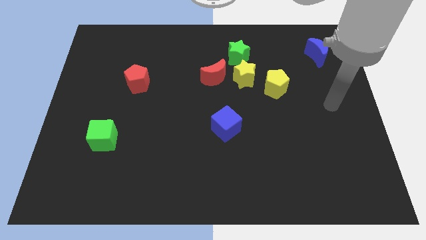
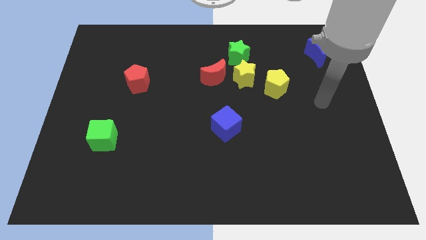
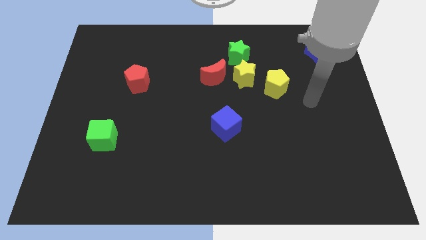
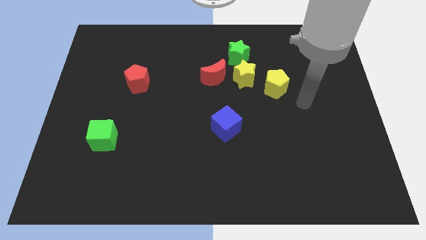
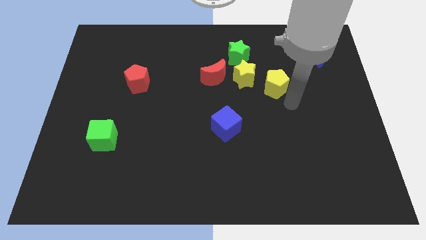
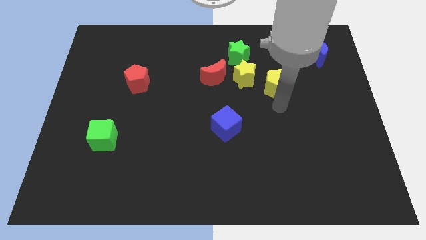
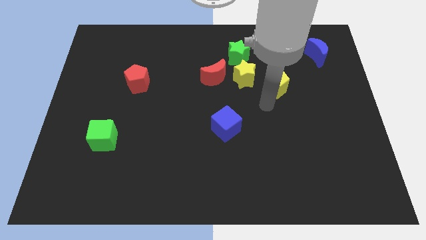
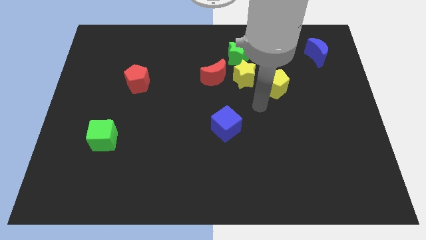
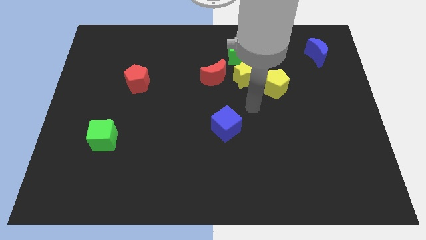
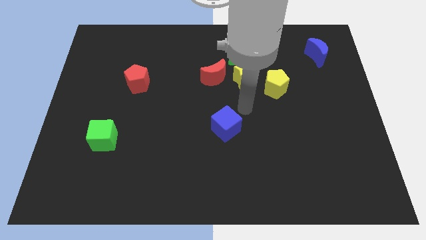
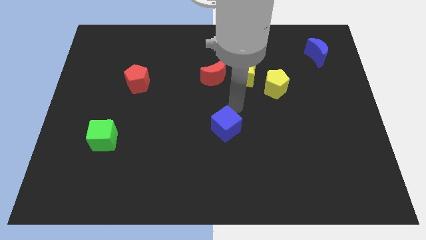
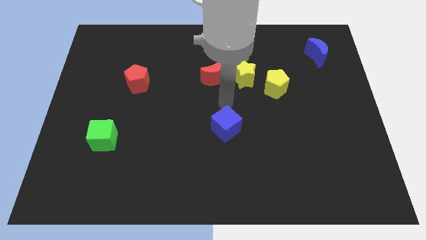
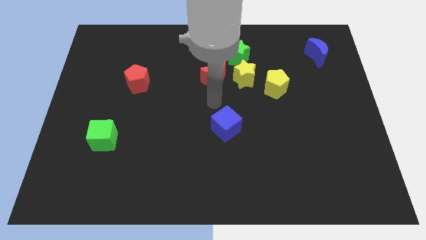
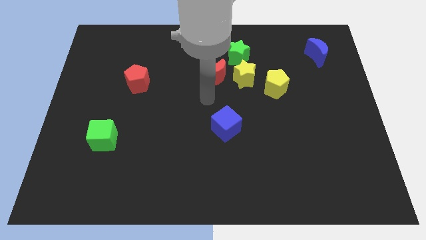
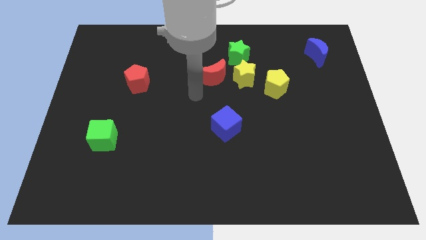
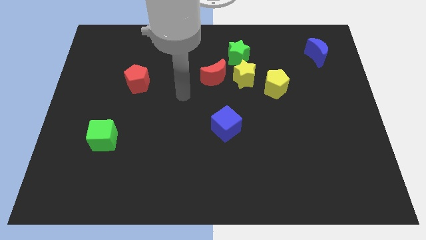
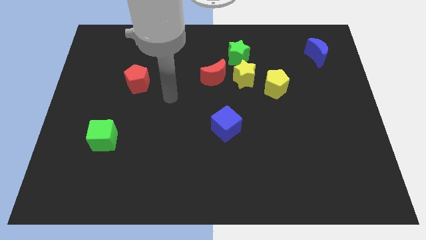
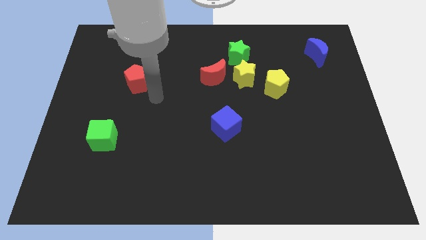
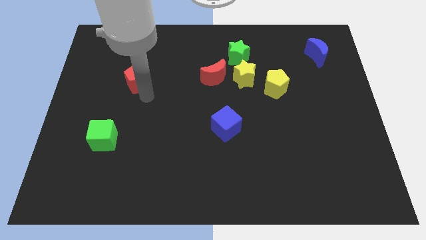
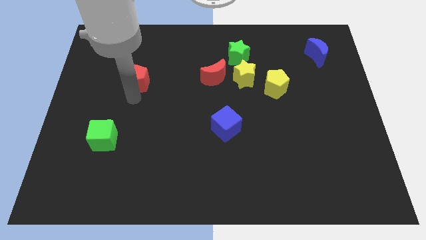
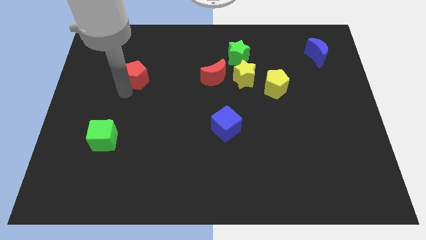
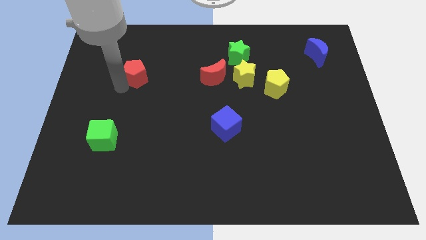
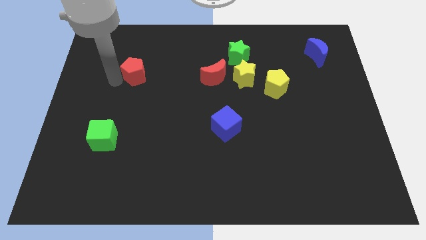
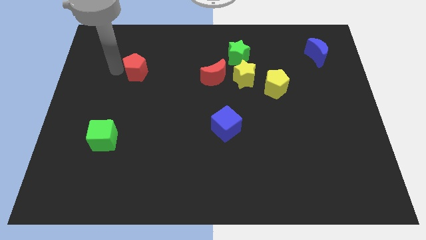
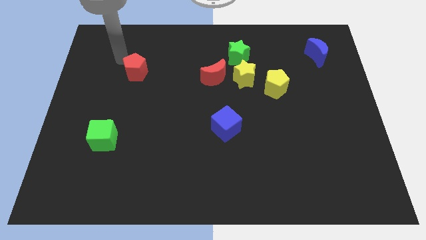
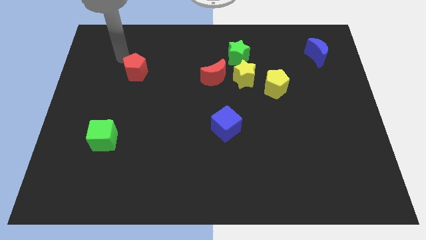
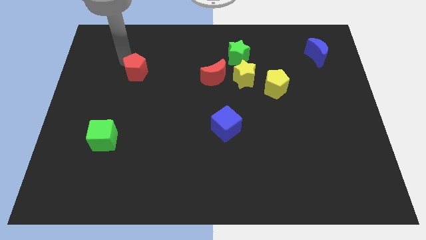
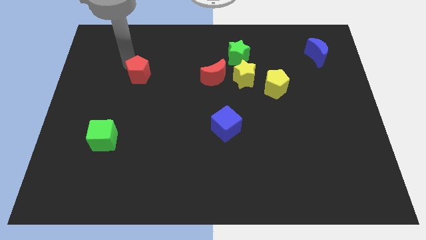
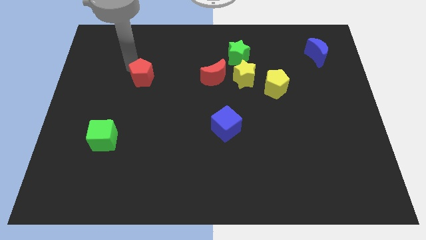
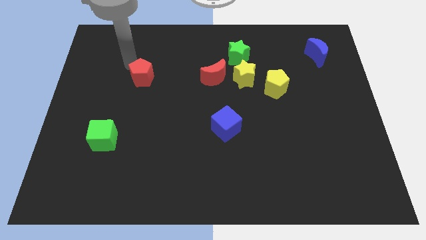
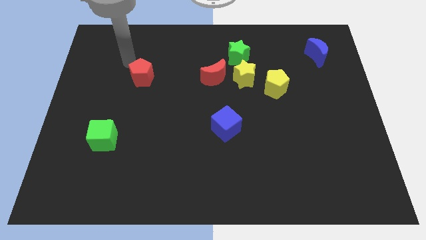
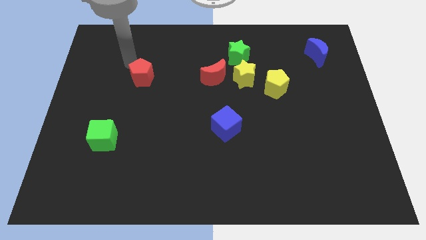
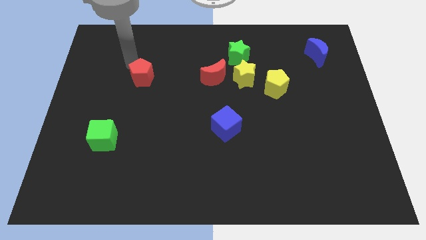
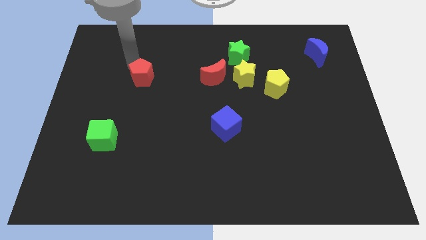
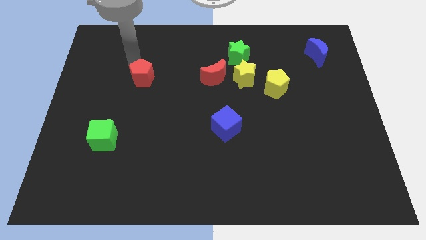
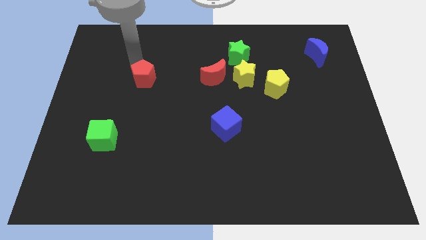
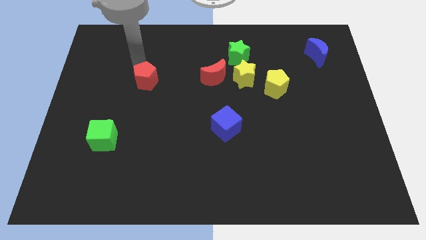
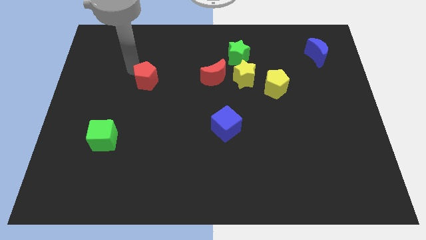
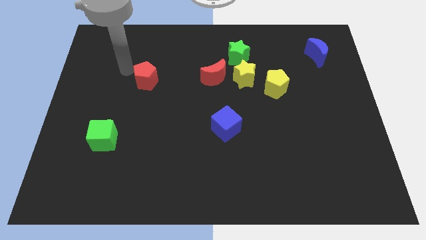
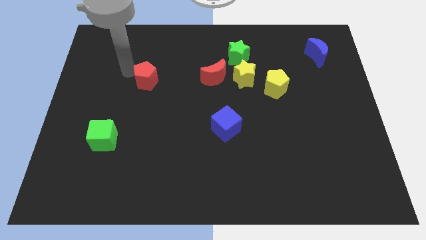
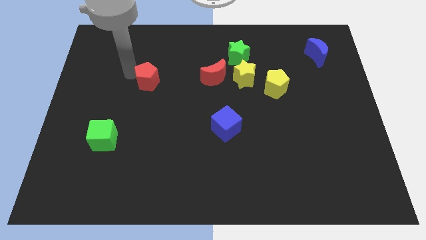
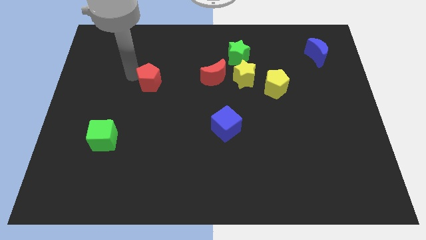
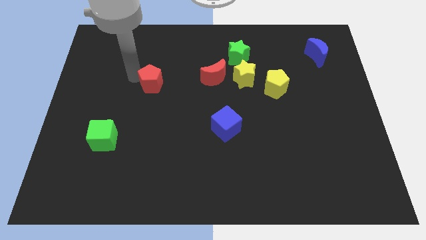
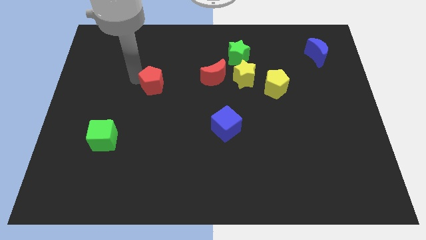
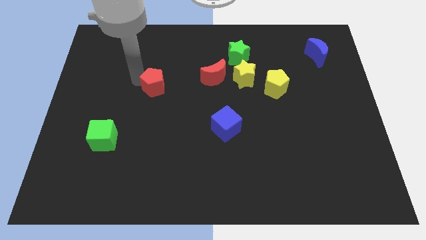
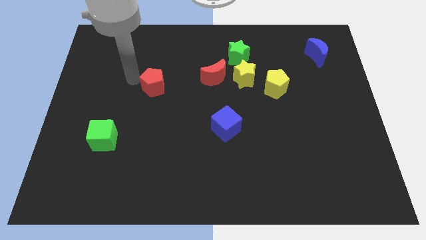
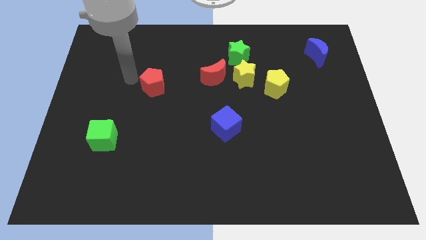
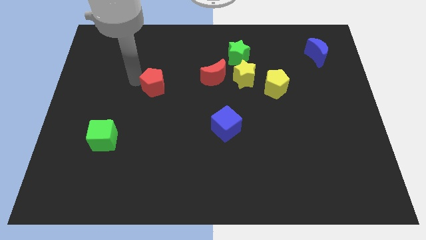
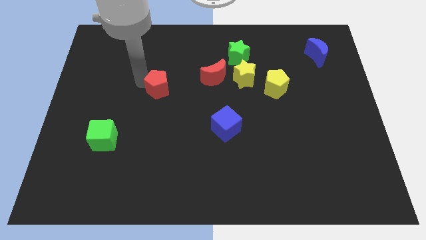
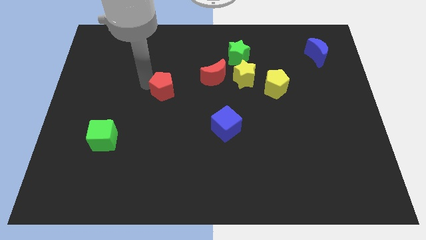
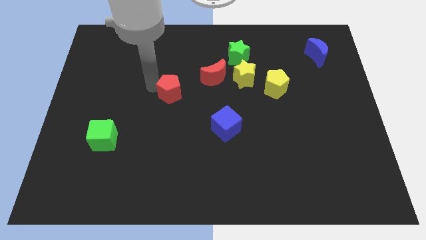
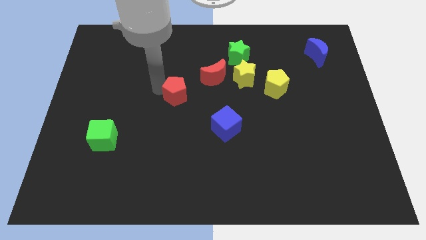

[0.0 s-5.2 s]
put the red pentagon to the bottom left of the red moon

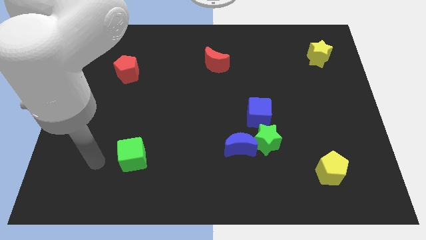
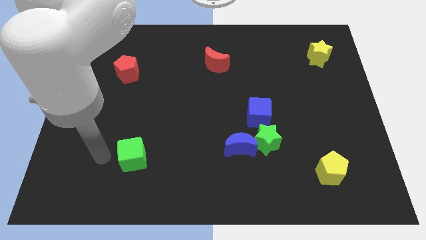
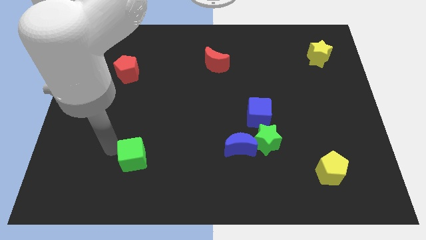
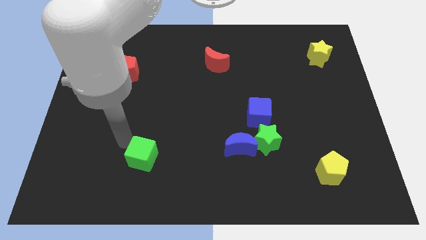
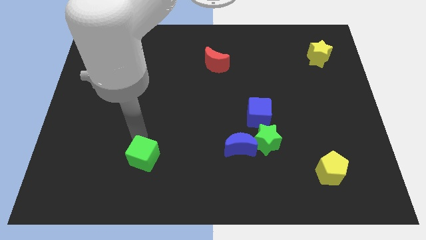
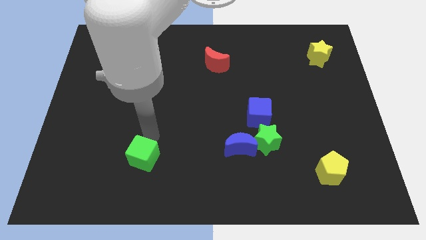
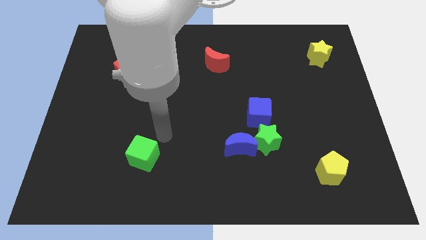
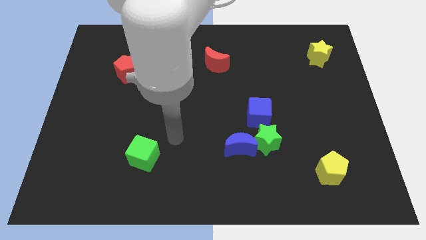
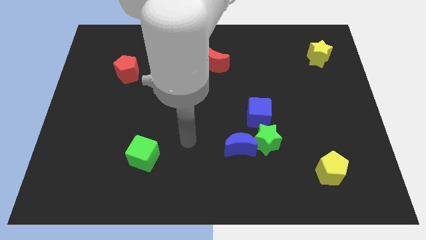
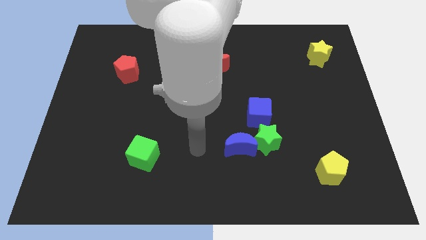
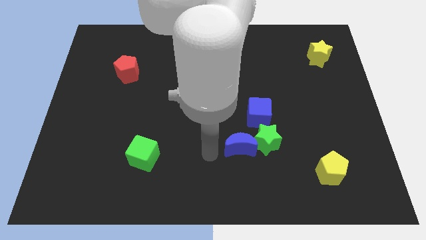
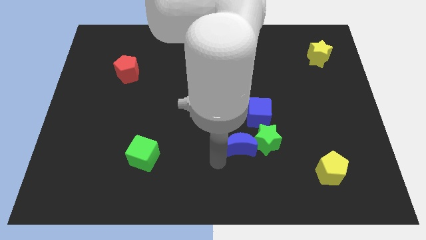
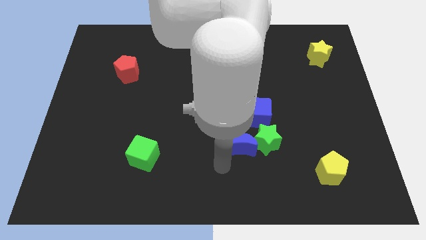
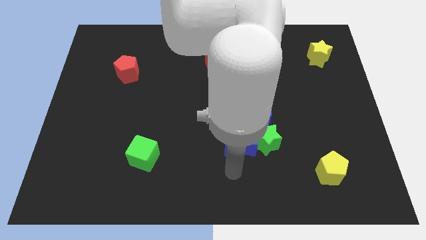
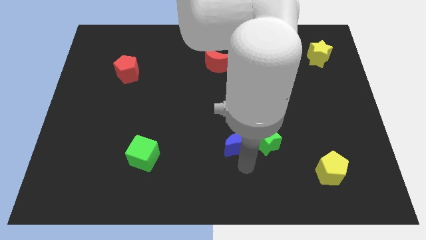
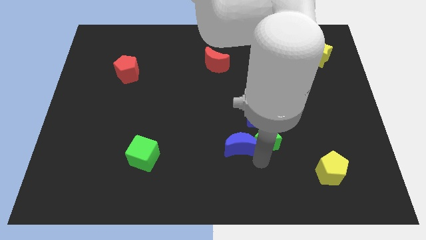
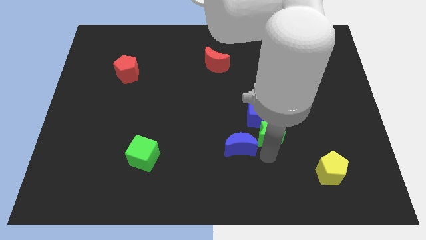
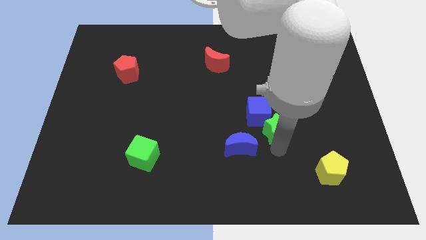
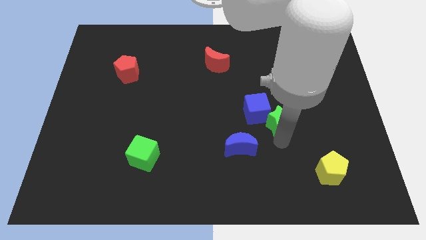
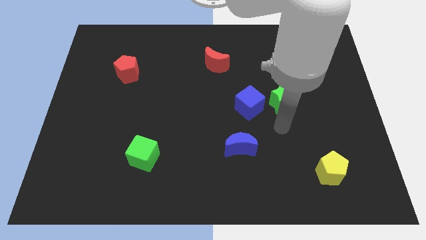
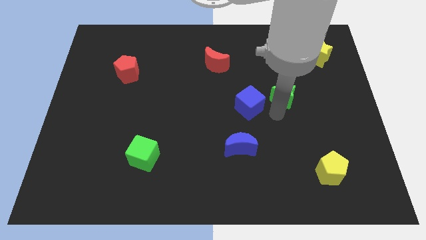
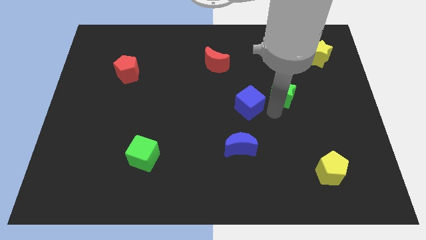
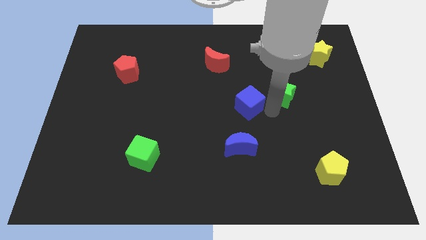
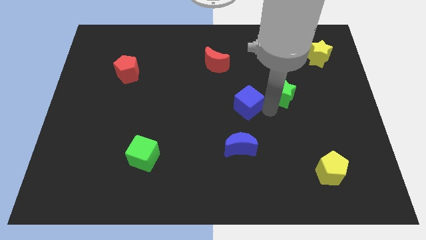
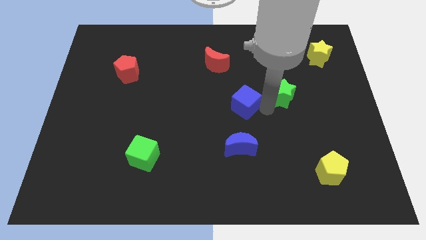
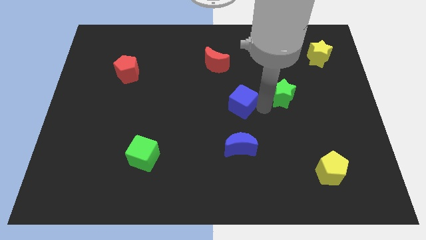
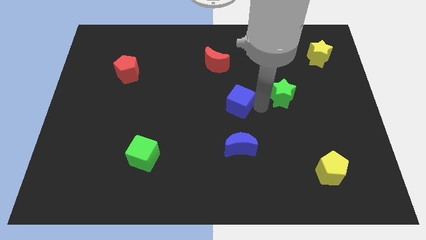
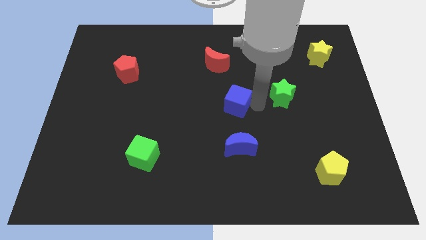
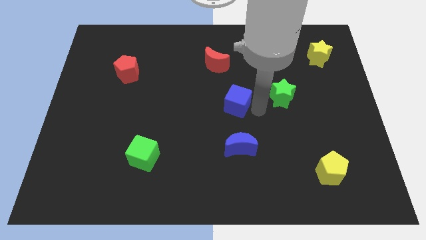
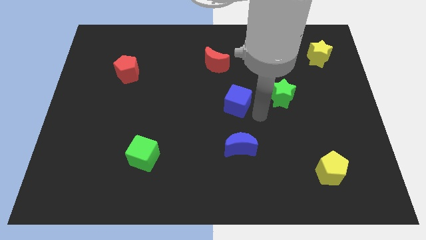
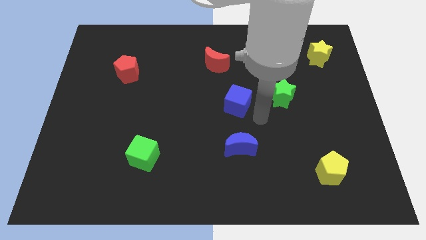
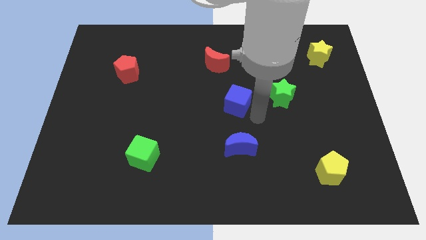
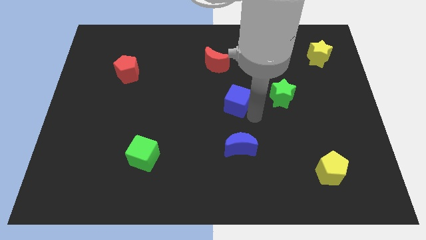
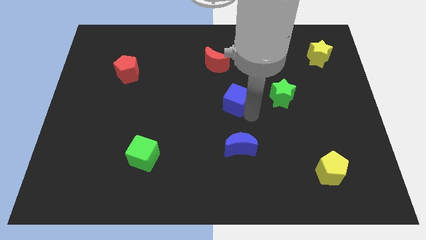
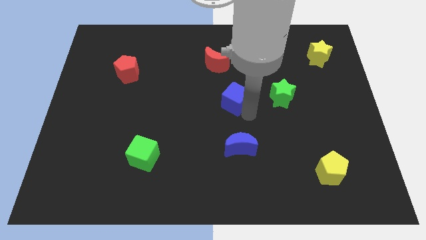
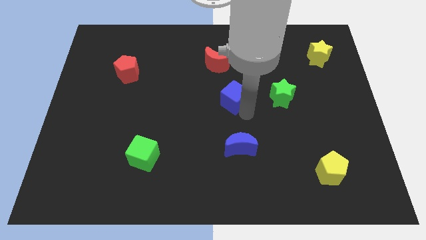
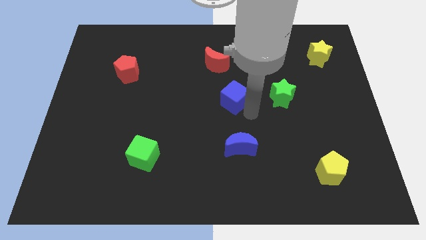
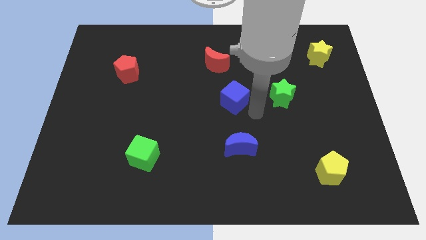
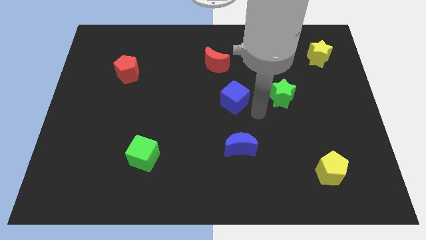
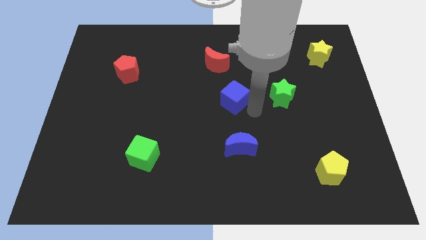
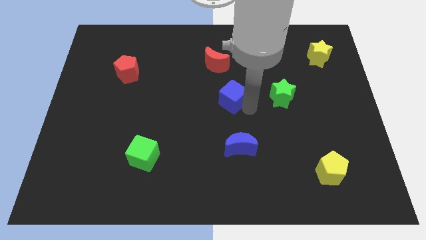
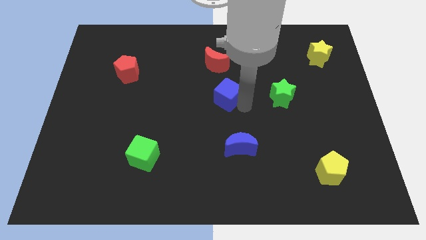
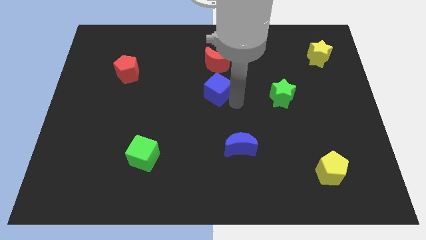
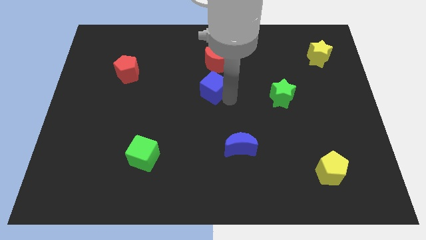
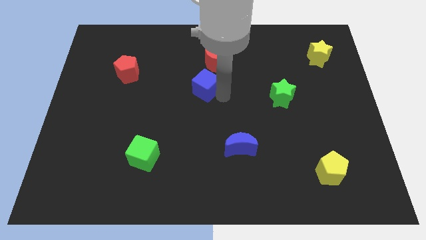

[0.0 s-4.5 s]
move the blue cube to the bottom left of the red moon
